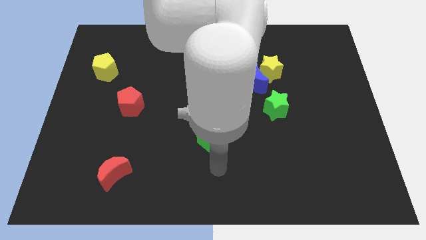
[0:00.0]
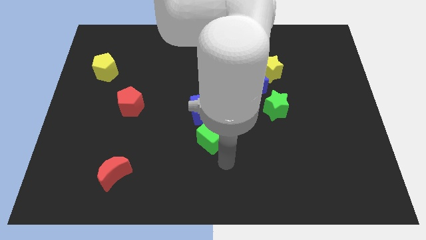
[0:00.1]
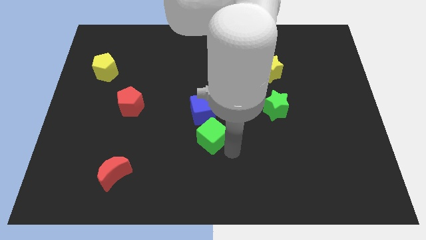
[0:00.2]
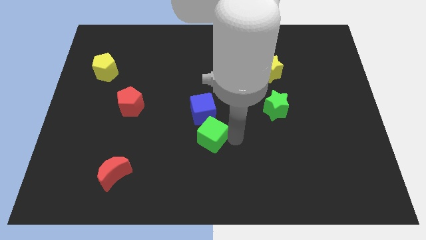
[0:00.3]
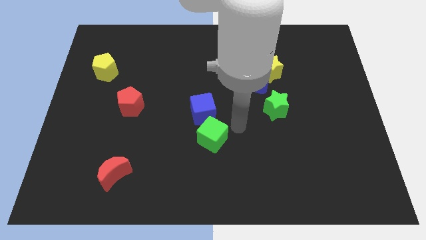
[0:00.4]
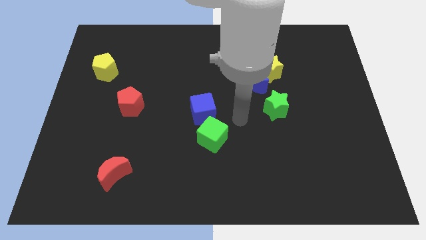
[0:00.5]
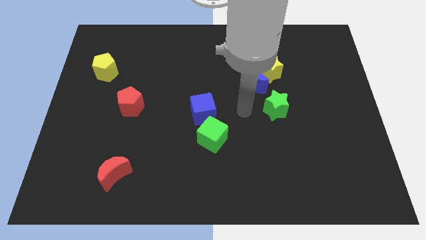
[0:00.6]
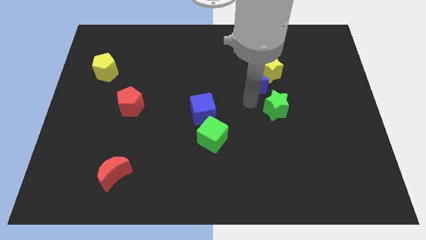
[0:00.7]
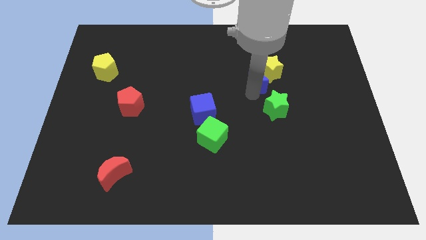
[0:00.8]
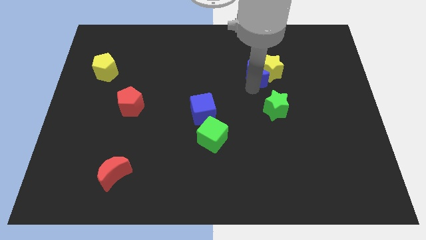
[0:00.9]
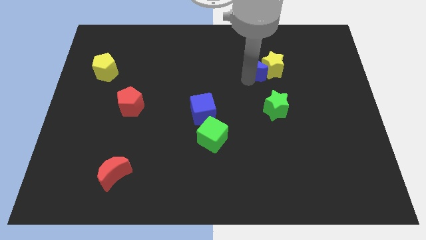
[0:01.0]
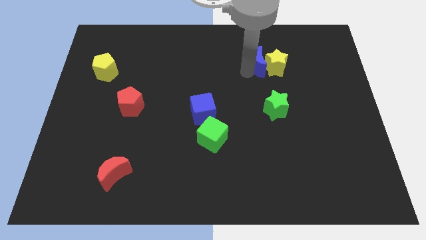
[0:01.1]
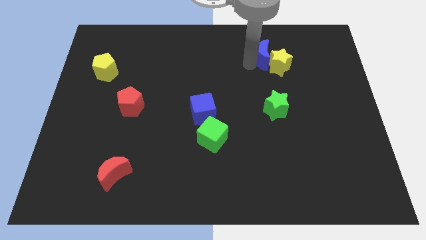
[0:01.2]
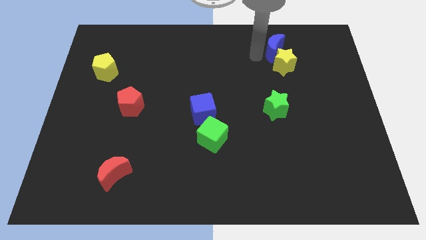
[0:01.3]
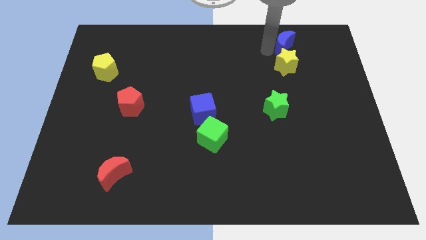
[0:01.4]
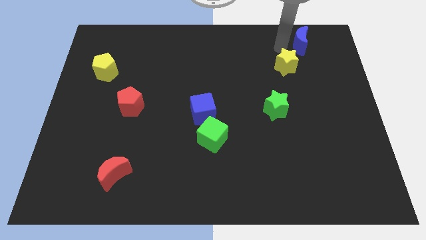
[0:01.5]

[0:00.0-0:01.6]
separate the yellow star from the blue moon

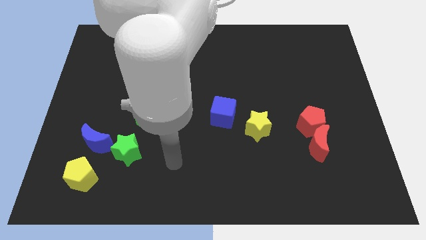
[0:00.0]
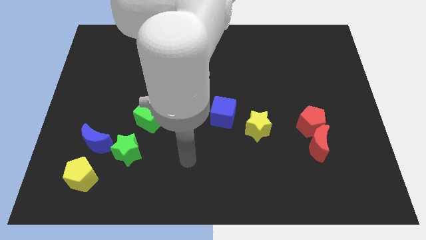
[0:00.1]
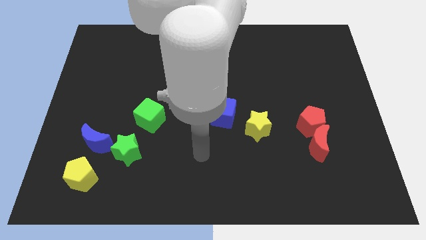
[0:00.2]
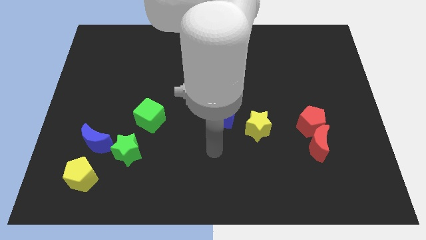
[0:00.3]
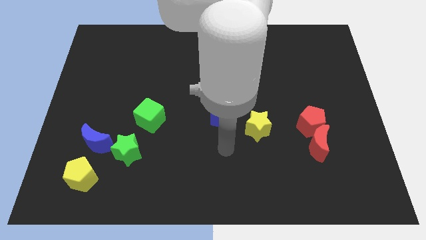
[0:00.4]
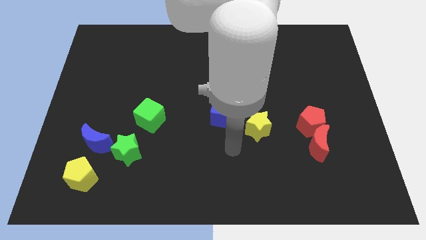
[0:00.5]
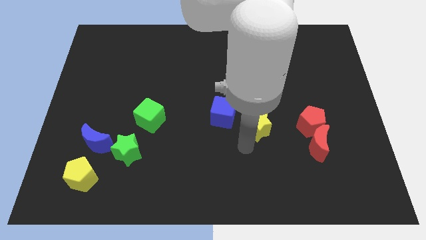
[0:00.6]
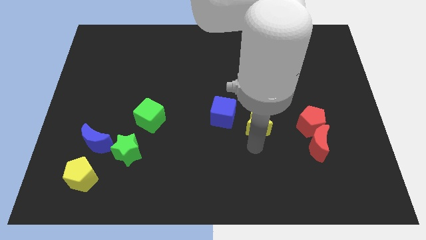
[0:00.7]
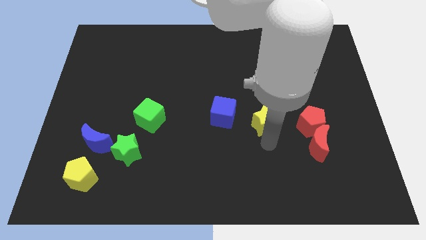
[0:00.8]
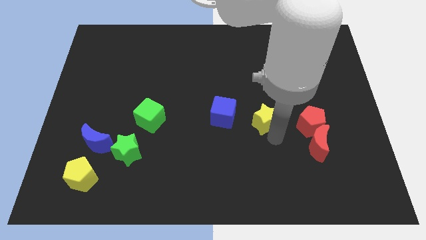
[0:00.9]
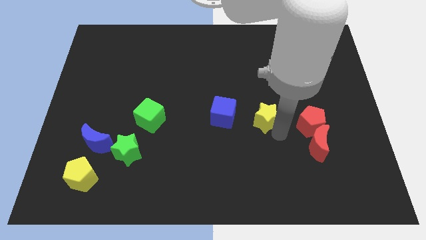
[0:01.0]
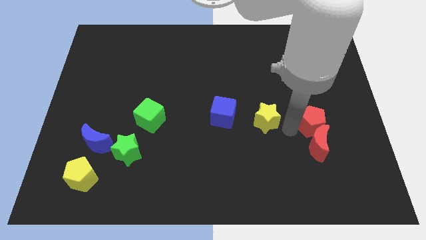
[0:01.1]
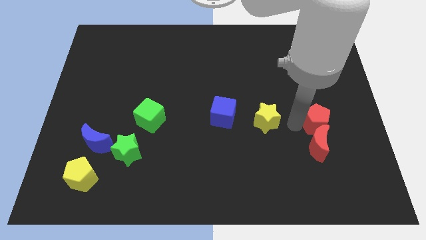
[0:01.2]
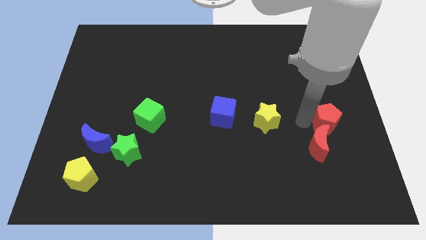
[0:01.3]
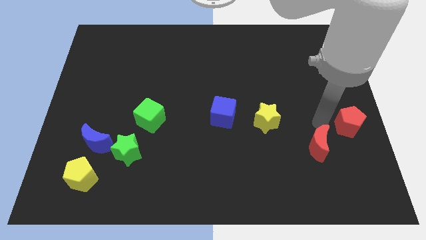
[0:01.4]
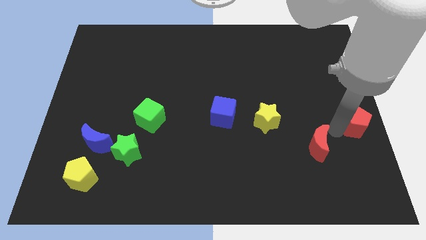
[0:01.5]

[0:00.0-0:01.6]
pull the red moon apart from the red pentagon

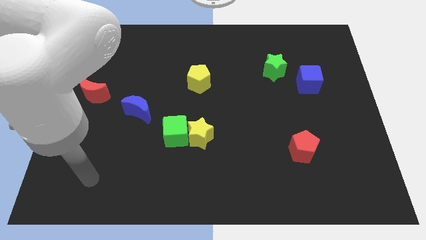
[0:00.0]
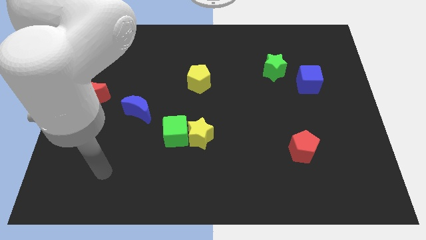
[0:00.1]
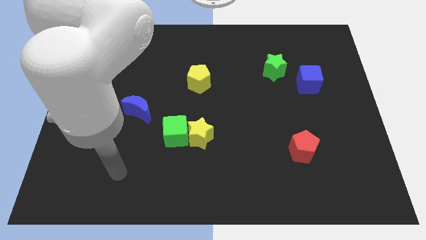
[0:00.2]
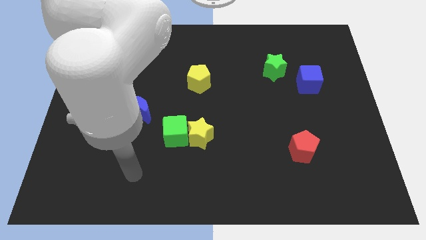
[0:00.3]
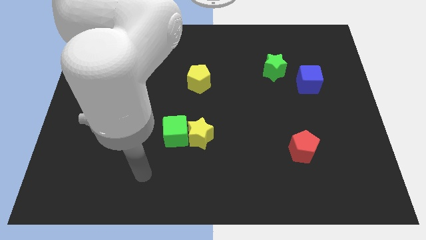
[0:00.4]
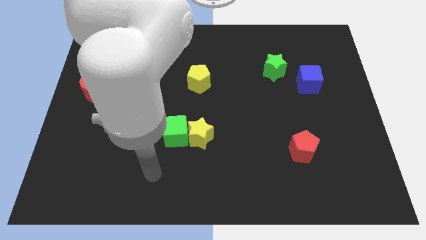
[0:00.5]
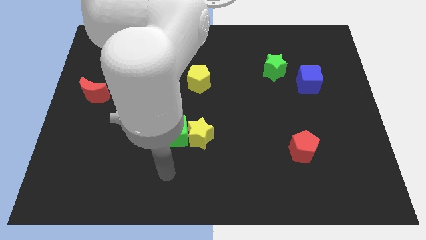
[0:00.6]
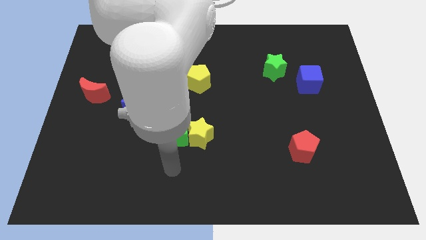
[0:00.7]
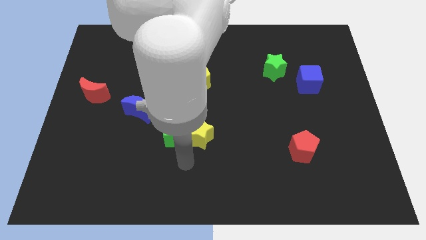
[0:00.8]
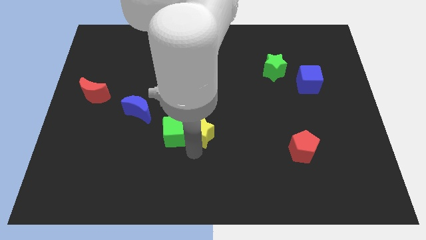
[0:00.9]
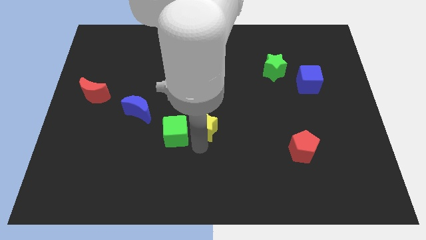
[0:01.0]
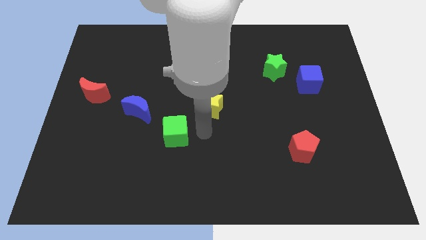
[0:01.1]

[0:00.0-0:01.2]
pull the green cube apart from the yellow star

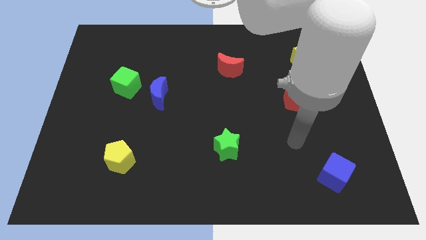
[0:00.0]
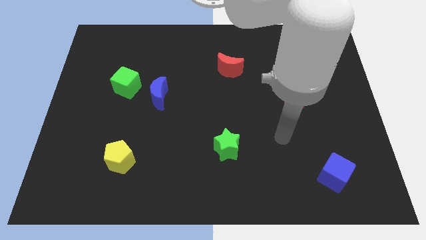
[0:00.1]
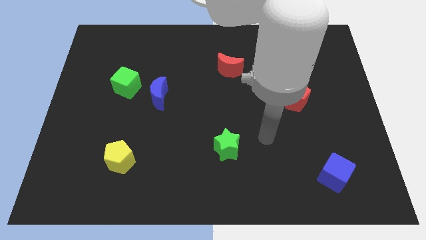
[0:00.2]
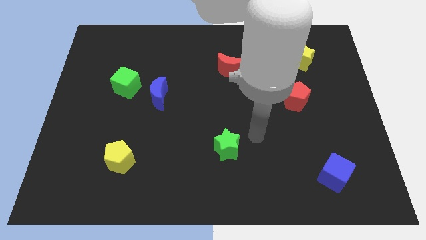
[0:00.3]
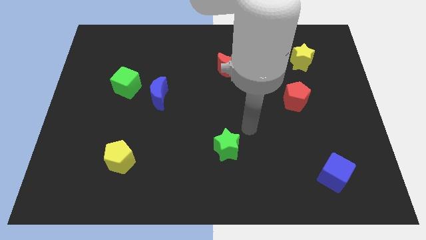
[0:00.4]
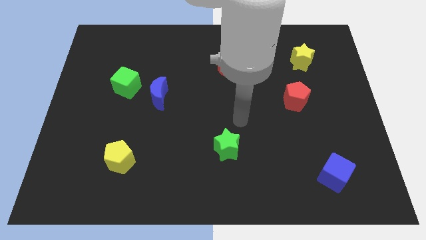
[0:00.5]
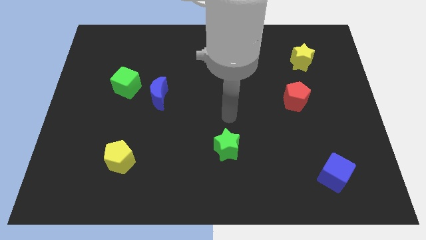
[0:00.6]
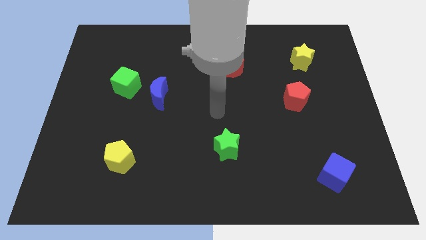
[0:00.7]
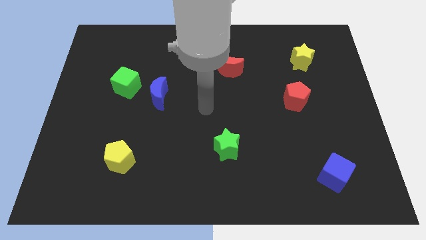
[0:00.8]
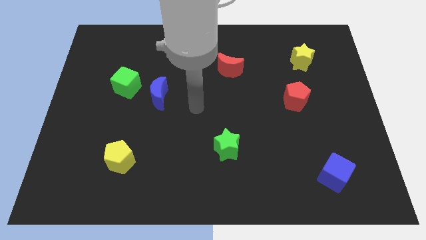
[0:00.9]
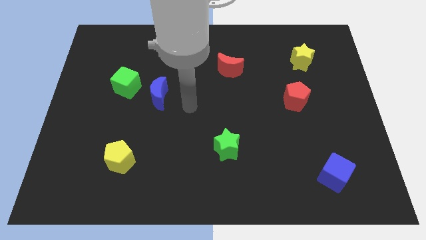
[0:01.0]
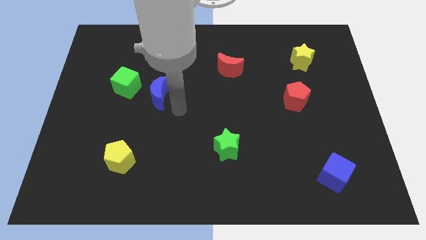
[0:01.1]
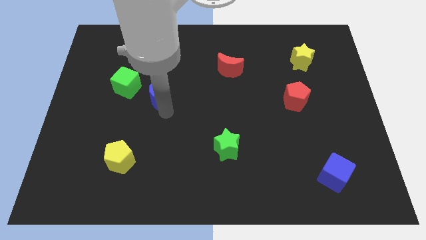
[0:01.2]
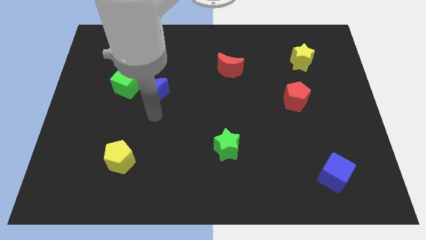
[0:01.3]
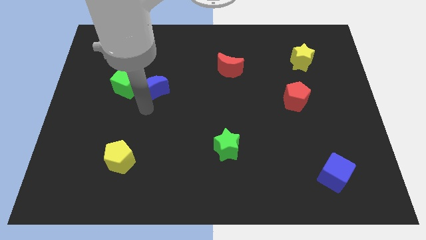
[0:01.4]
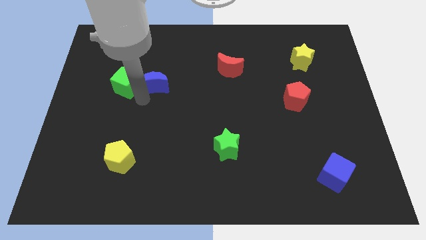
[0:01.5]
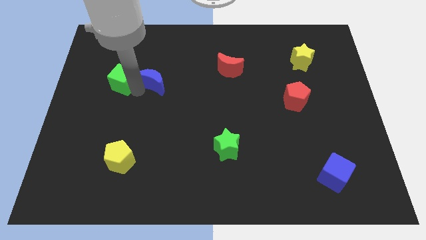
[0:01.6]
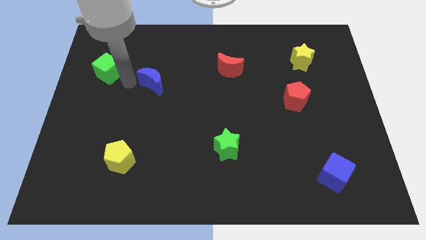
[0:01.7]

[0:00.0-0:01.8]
move the blue moon away from the green cube

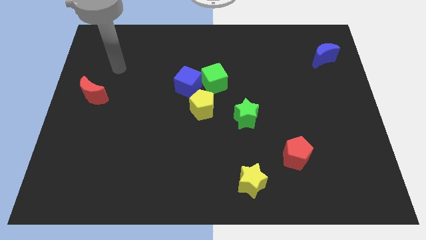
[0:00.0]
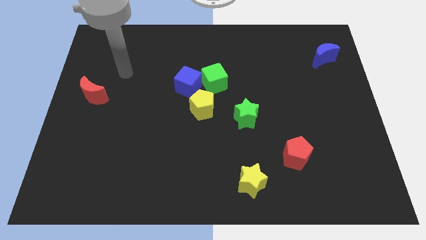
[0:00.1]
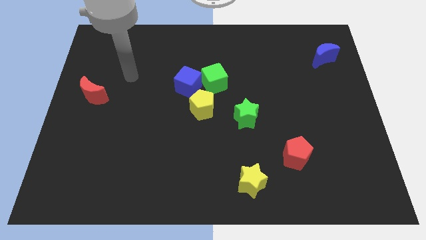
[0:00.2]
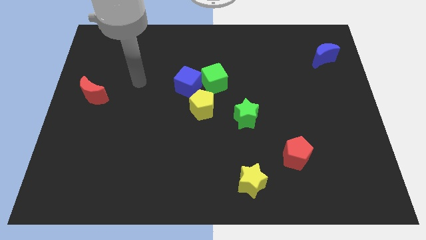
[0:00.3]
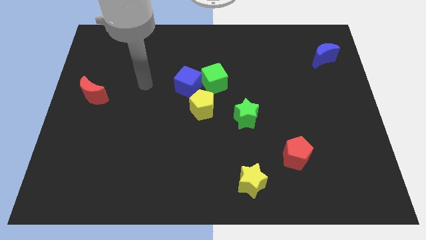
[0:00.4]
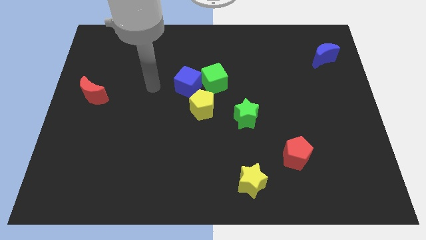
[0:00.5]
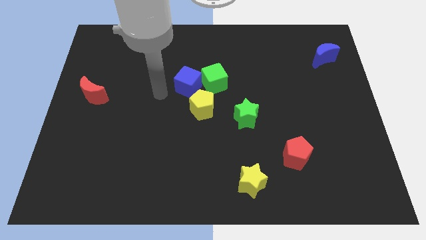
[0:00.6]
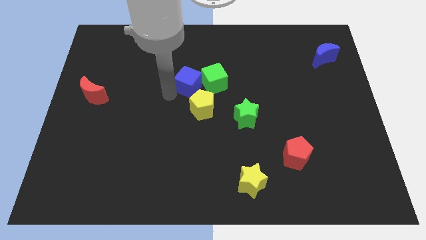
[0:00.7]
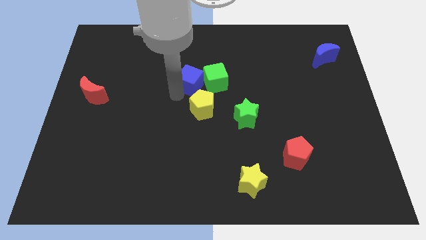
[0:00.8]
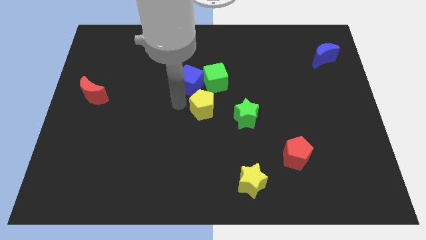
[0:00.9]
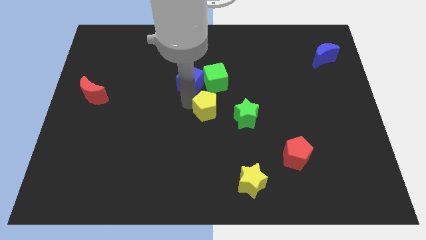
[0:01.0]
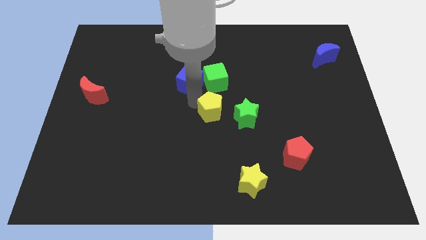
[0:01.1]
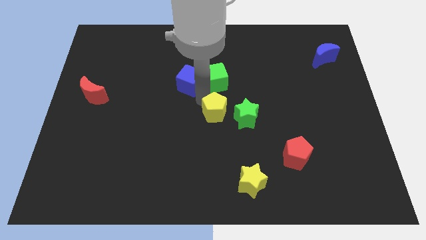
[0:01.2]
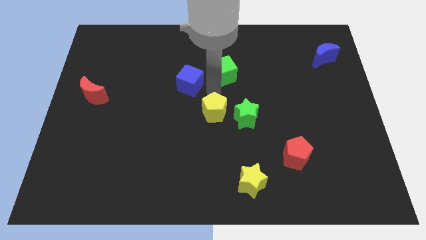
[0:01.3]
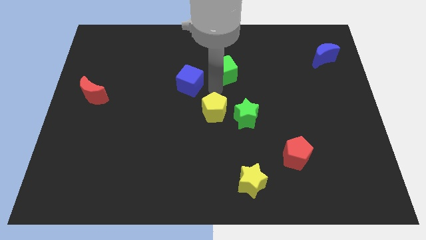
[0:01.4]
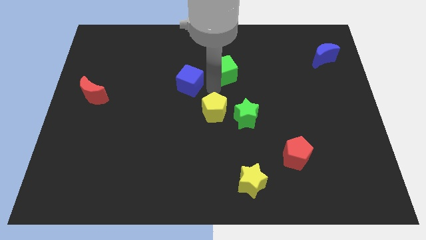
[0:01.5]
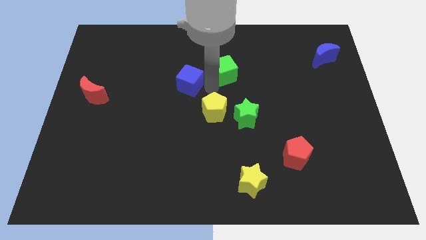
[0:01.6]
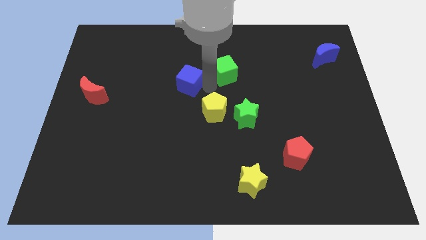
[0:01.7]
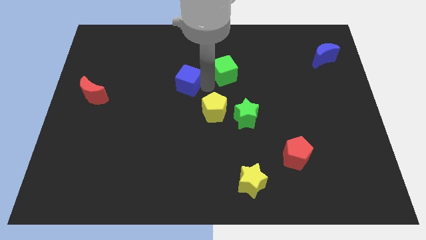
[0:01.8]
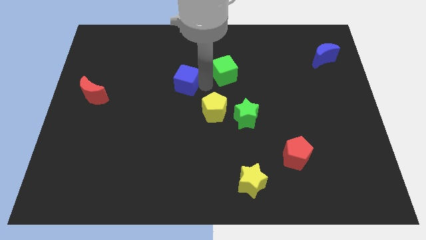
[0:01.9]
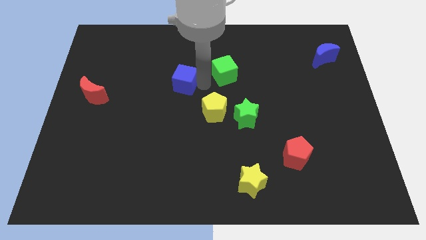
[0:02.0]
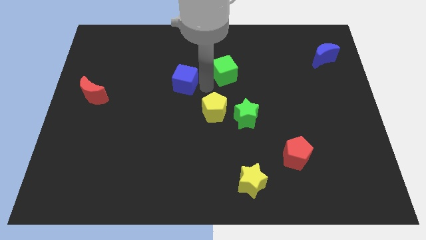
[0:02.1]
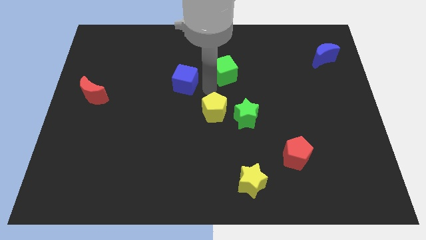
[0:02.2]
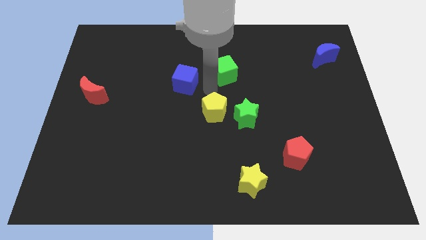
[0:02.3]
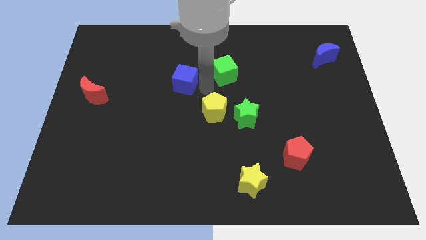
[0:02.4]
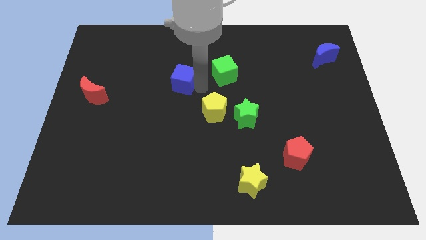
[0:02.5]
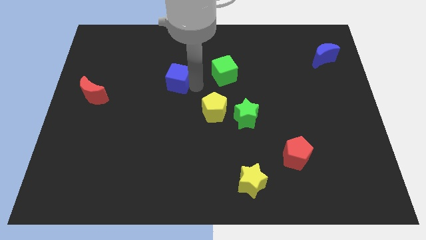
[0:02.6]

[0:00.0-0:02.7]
separate the blue cube from the green cube and yellow pentagon

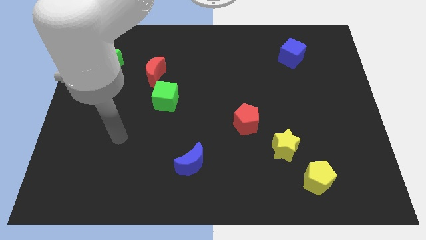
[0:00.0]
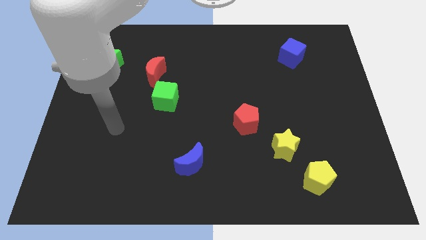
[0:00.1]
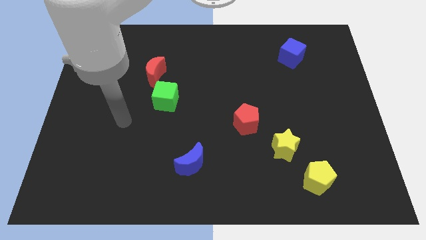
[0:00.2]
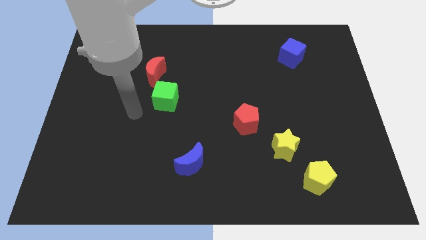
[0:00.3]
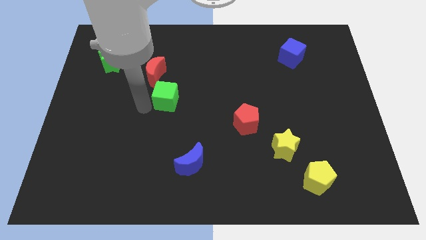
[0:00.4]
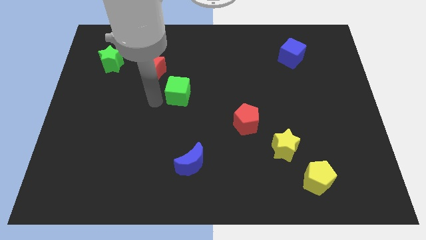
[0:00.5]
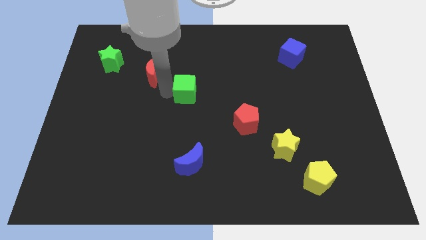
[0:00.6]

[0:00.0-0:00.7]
pull the red moon apart from the green cube
